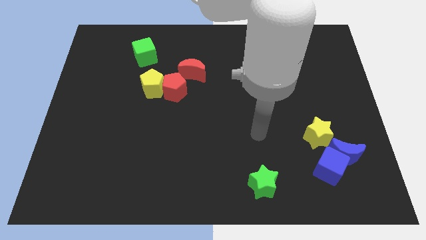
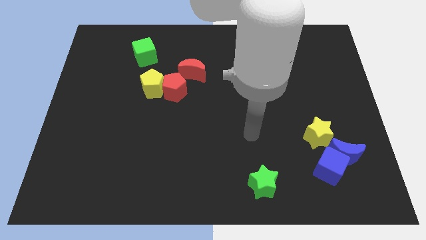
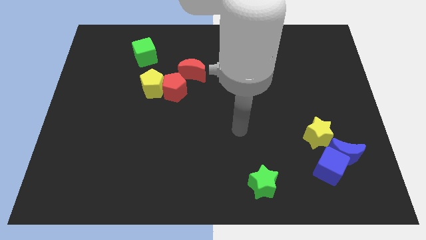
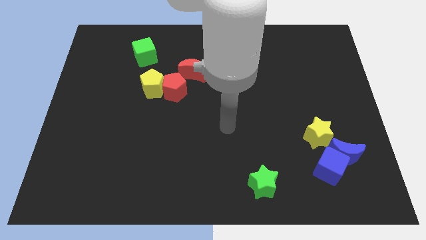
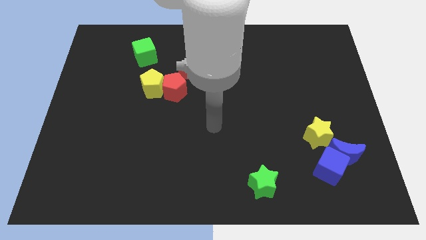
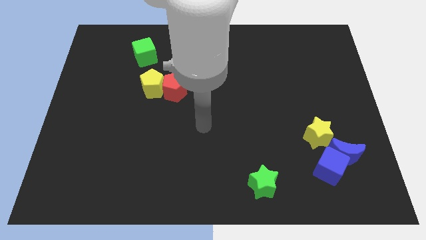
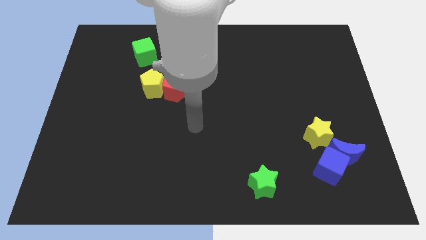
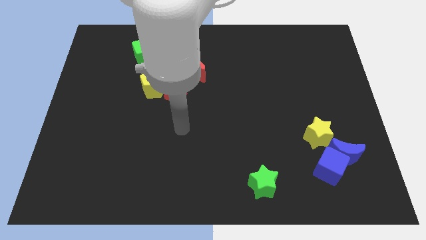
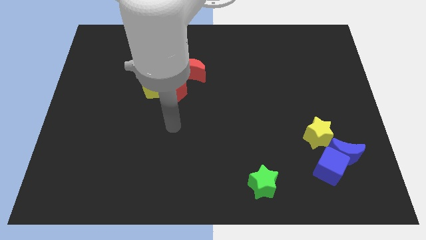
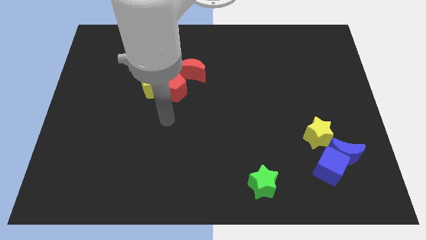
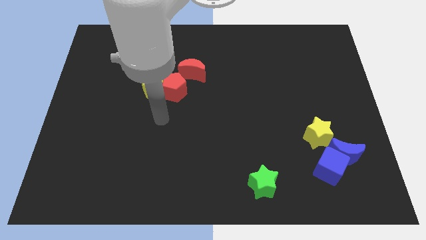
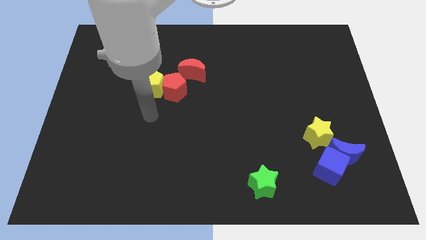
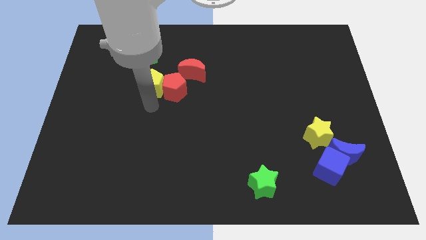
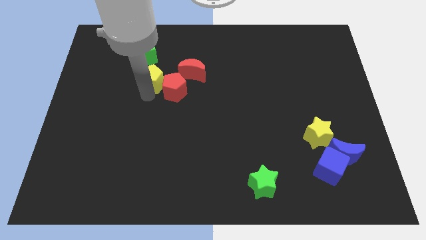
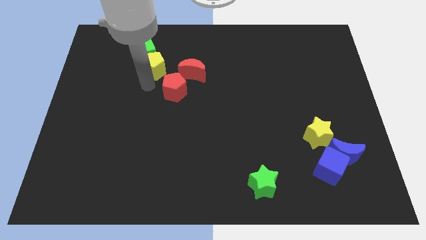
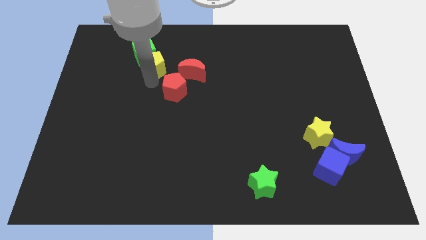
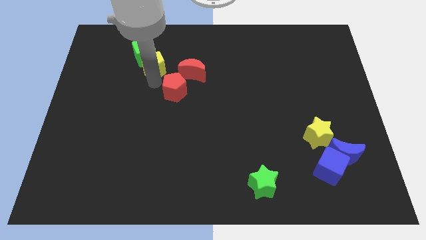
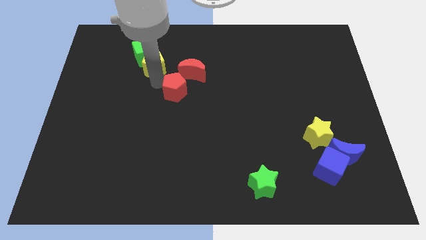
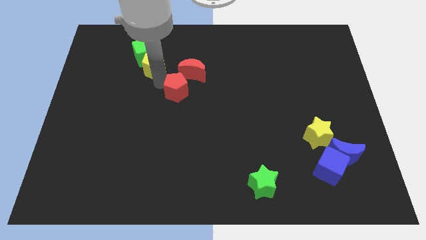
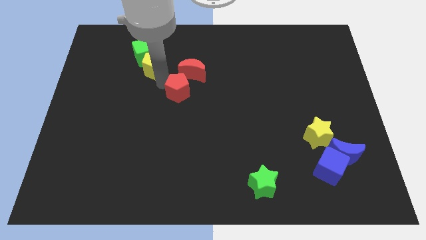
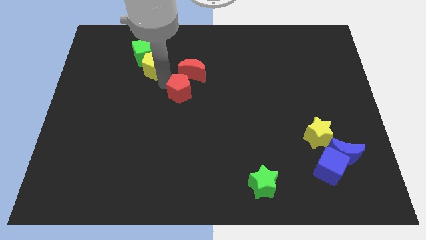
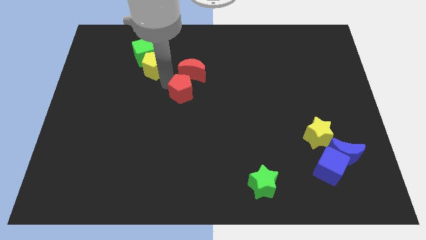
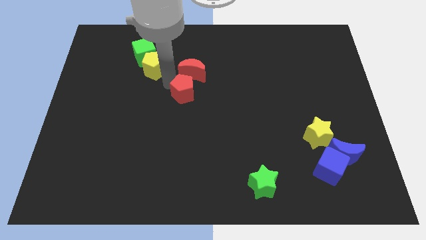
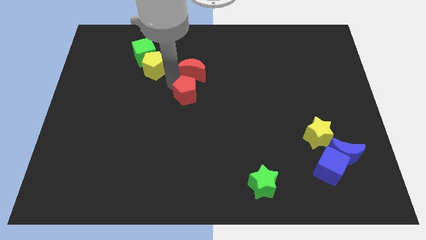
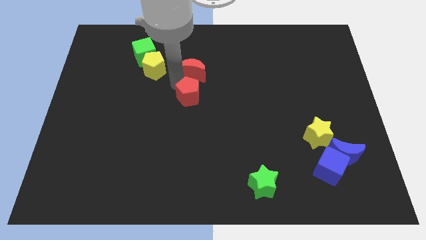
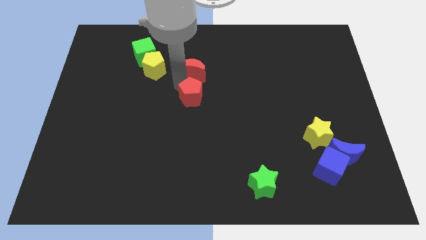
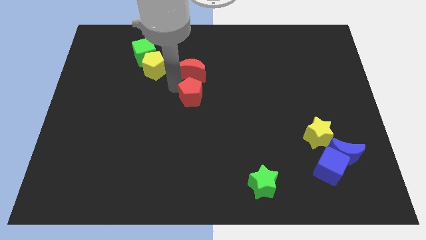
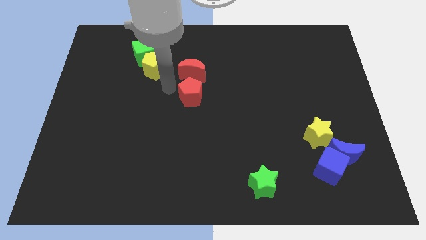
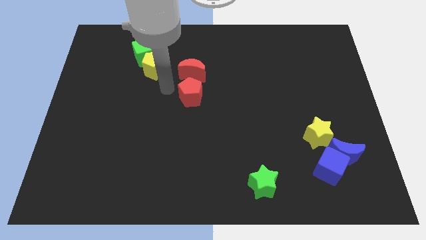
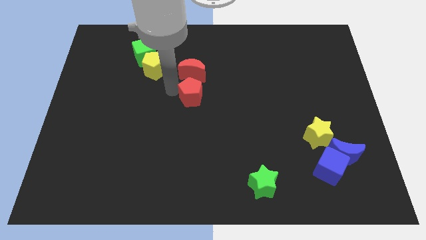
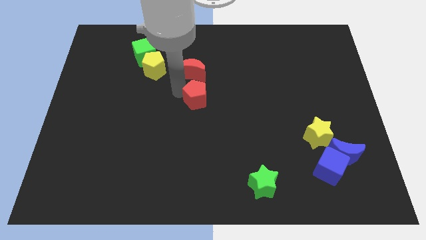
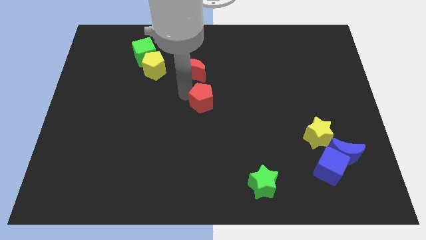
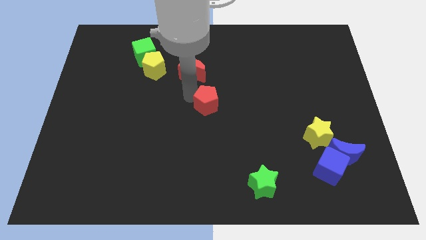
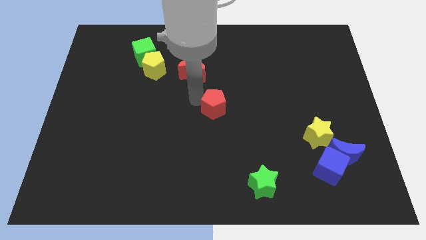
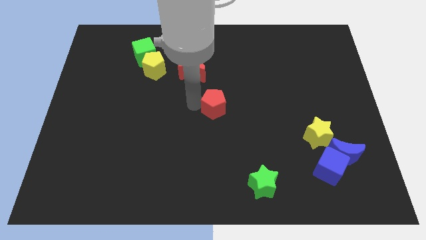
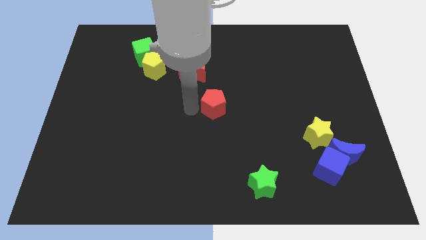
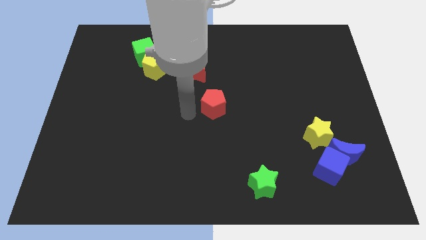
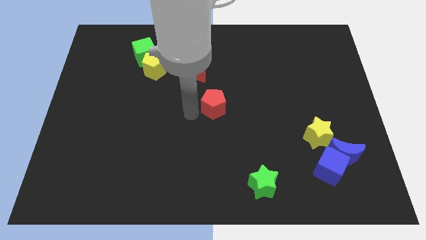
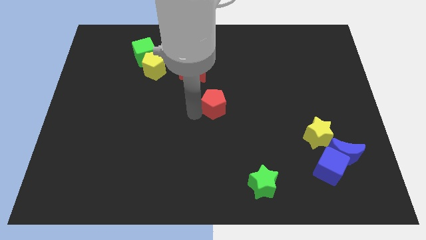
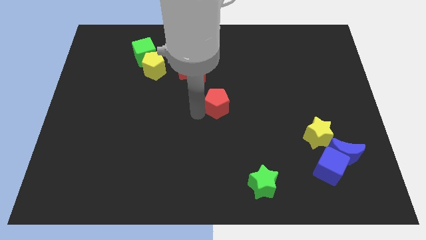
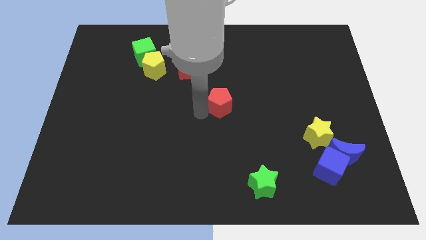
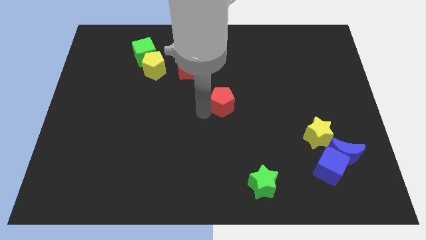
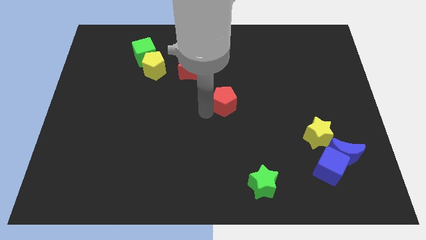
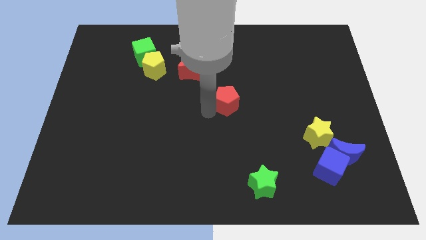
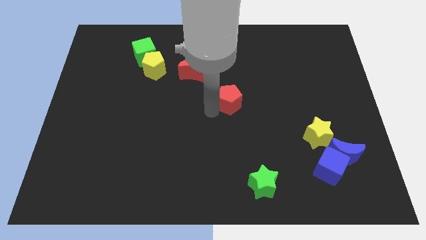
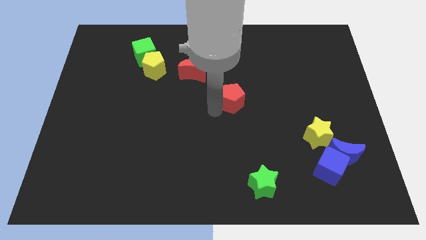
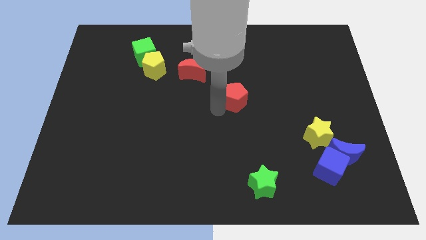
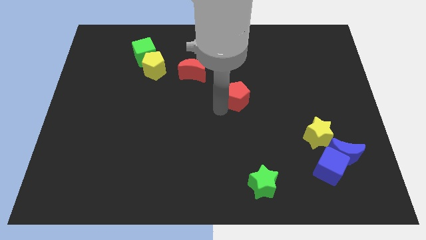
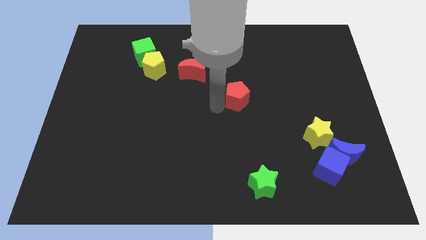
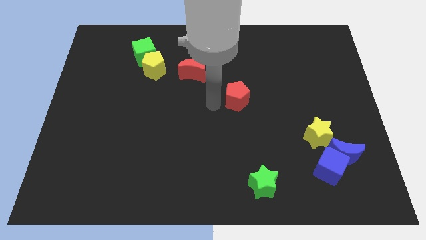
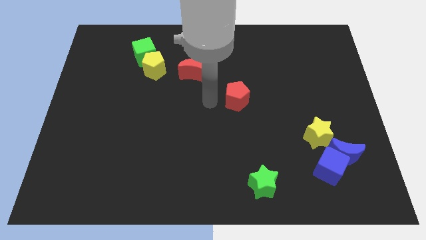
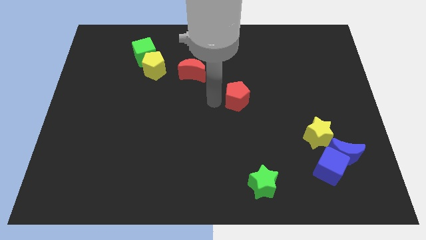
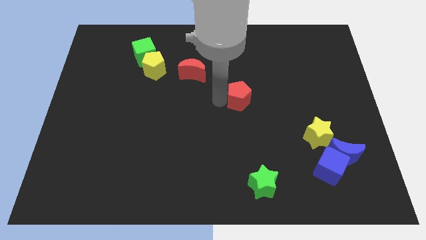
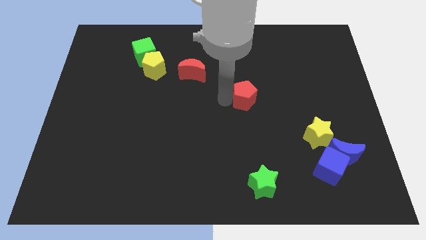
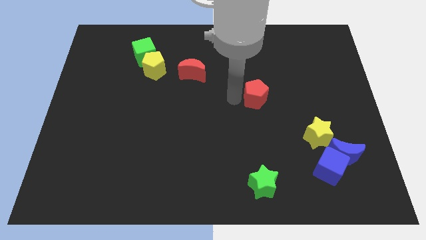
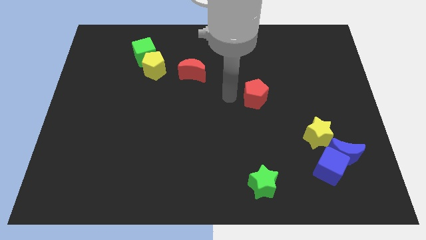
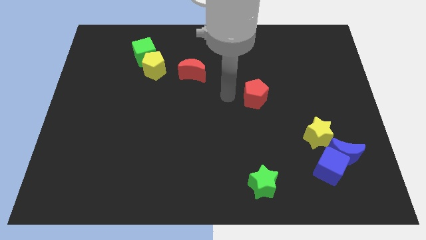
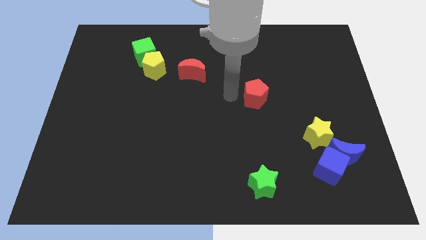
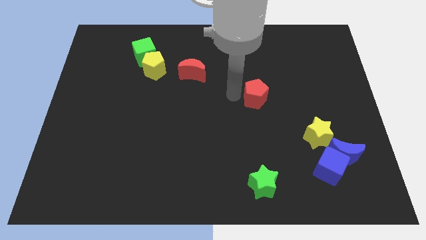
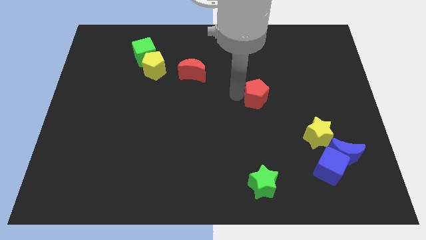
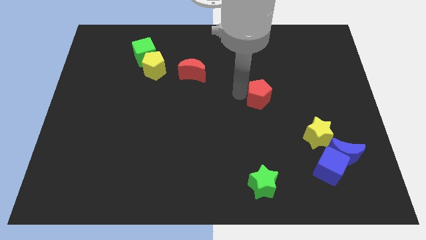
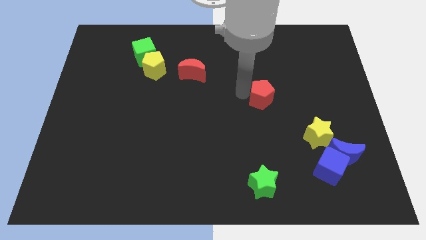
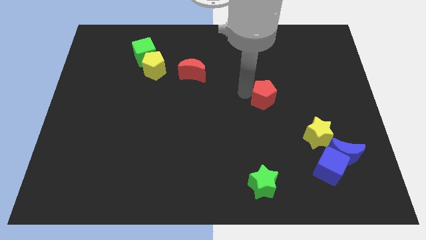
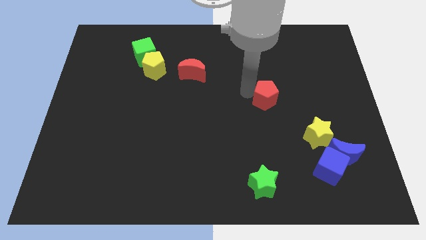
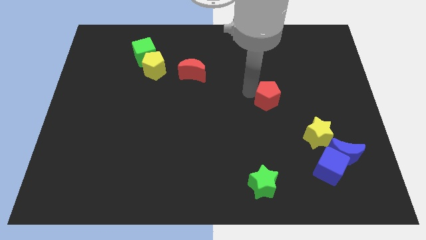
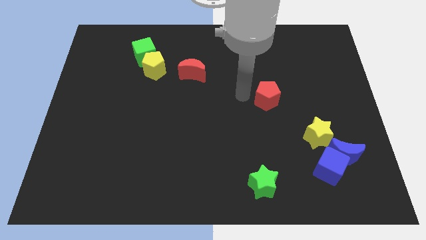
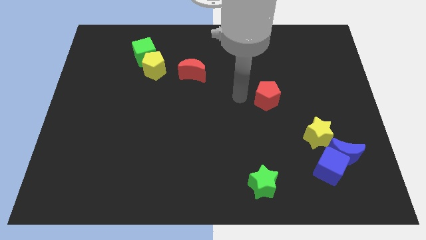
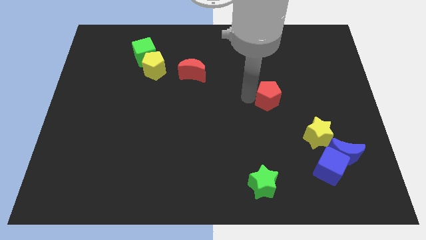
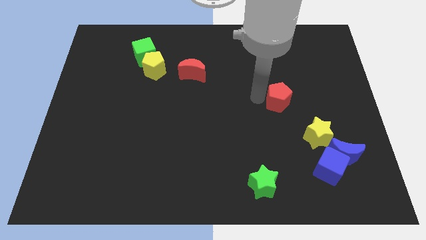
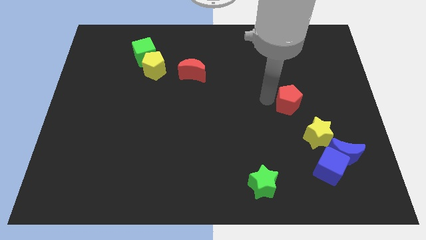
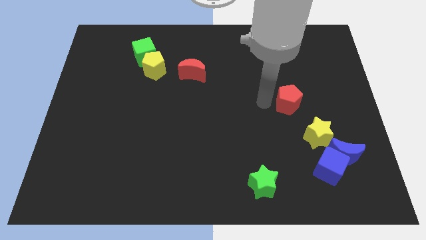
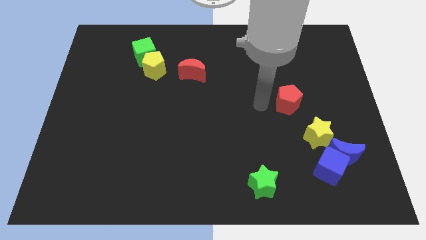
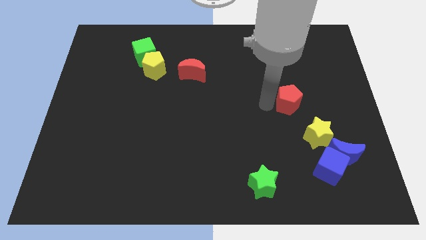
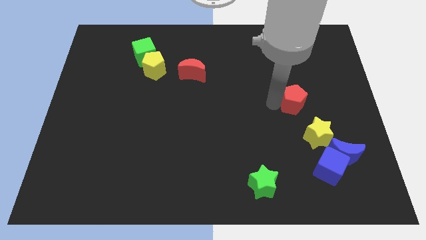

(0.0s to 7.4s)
move the red pentagon to the top of the yellow star
